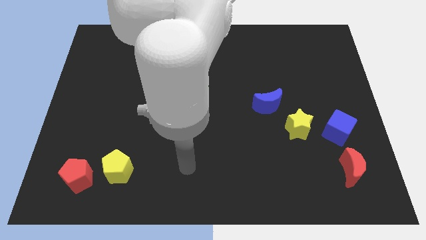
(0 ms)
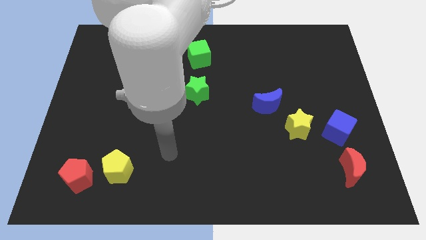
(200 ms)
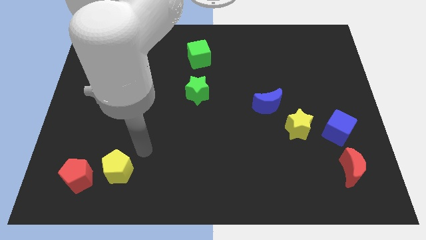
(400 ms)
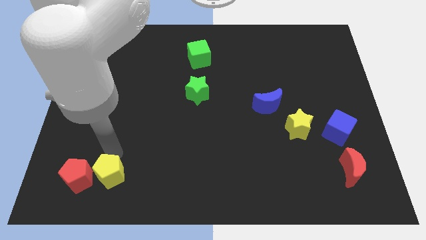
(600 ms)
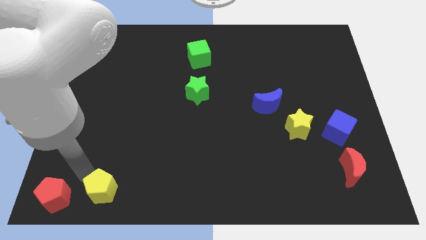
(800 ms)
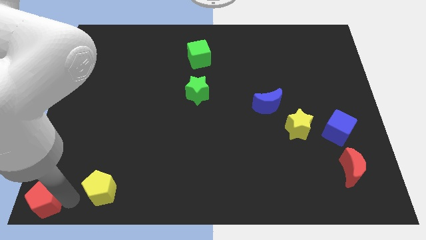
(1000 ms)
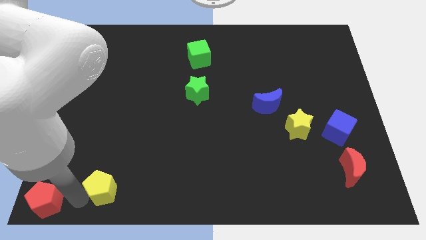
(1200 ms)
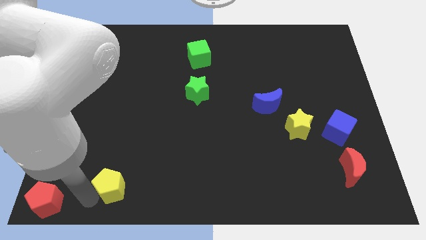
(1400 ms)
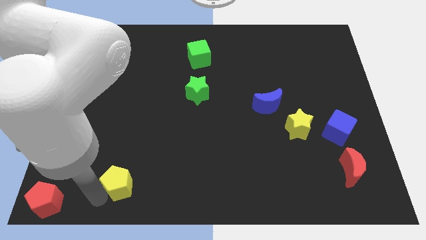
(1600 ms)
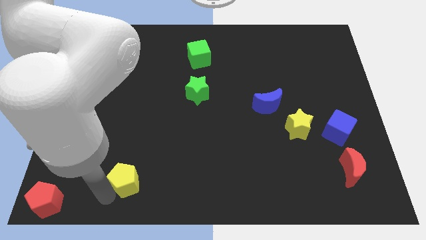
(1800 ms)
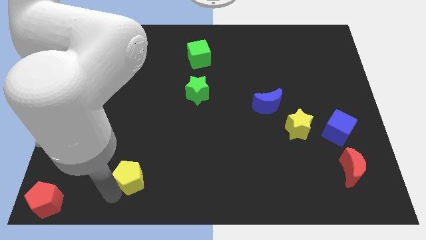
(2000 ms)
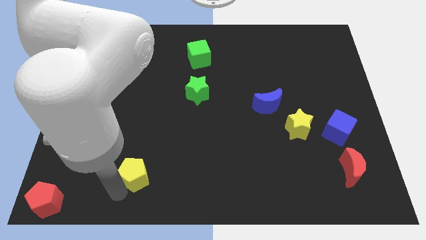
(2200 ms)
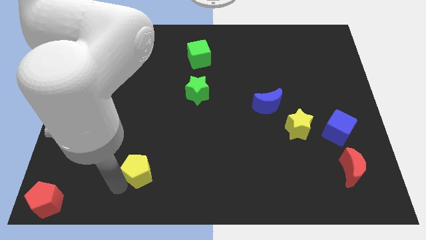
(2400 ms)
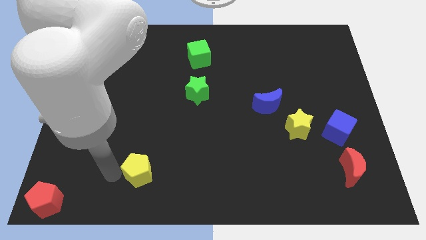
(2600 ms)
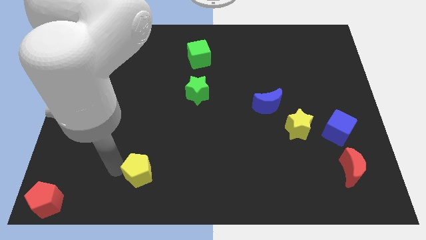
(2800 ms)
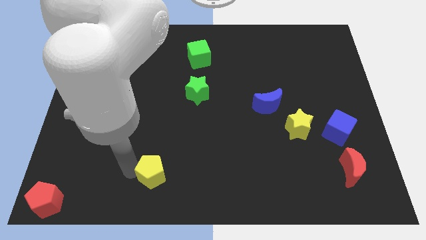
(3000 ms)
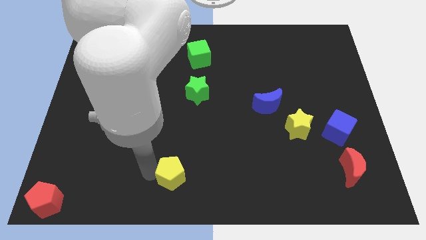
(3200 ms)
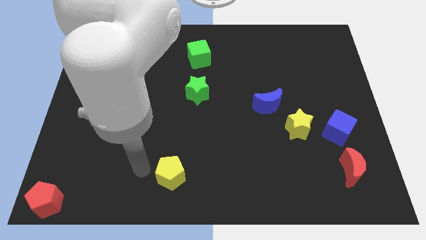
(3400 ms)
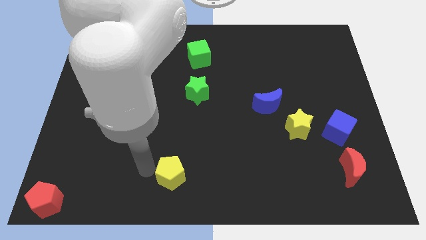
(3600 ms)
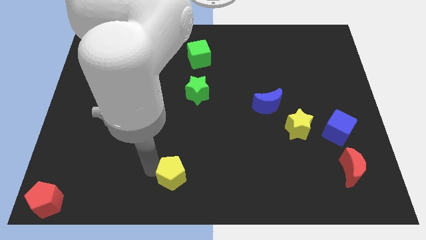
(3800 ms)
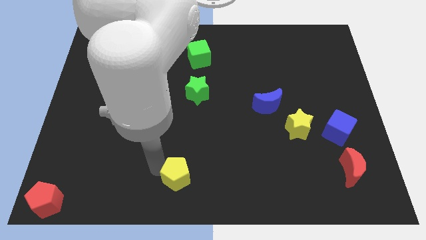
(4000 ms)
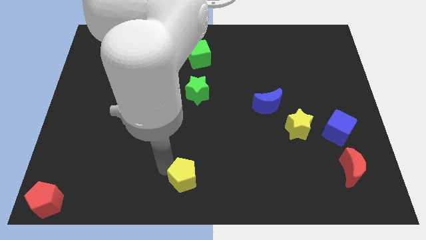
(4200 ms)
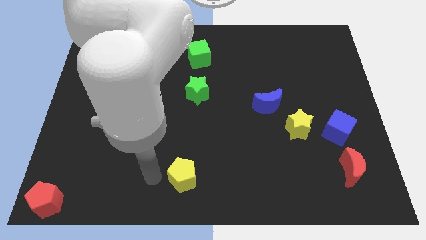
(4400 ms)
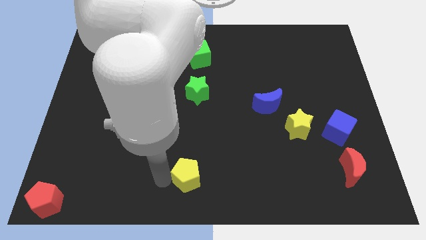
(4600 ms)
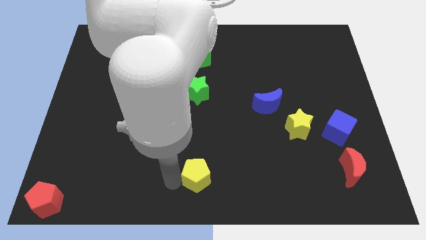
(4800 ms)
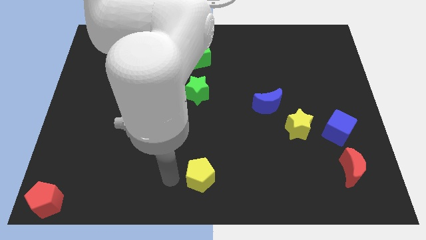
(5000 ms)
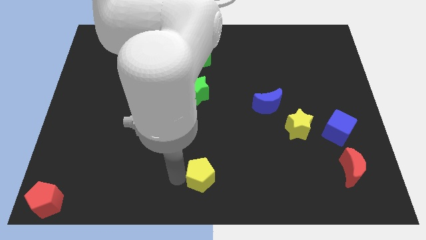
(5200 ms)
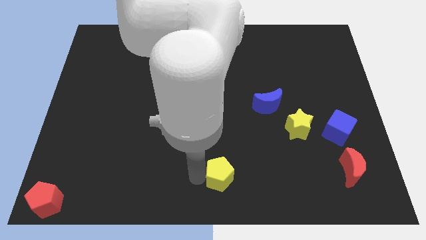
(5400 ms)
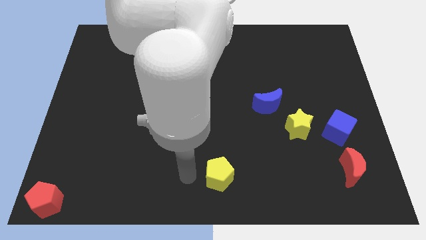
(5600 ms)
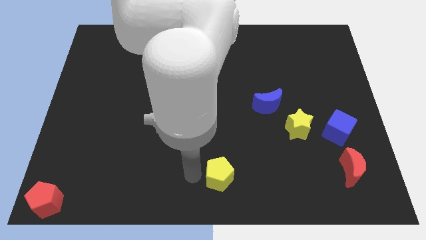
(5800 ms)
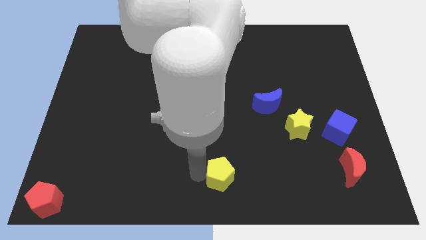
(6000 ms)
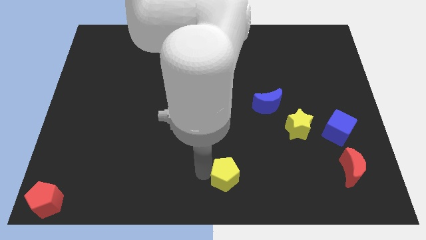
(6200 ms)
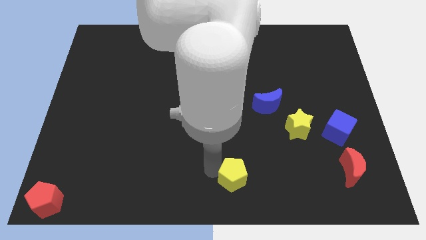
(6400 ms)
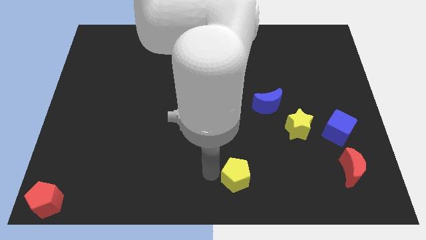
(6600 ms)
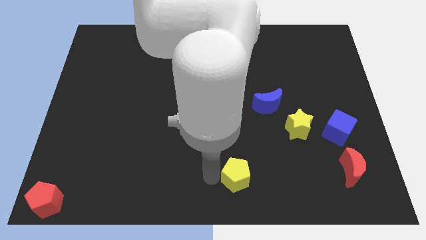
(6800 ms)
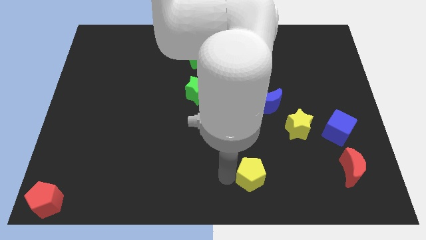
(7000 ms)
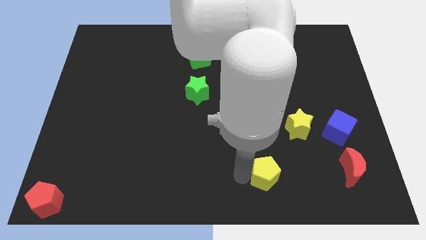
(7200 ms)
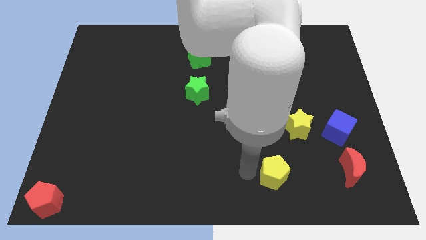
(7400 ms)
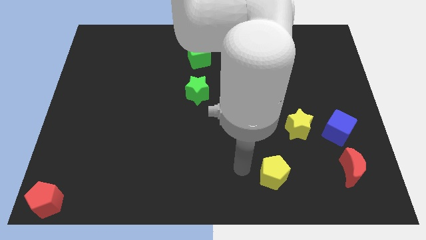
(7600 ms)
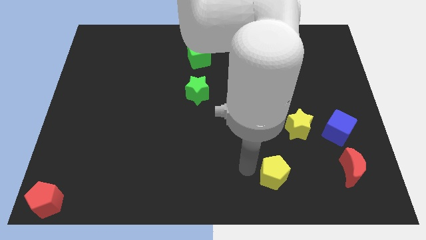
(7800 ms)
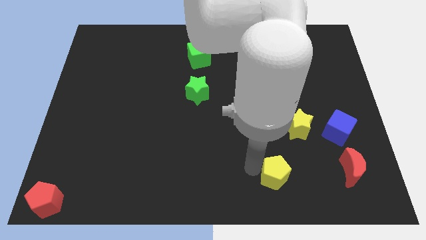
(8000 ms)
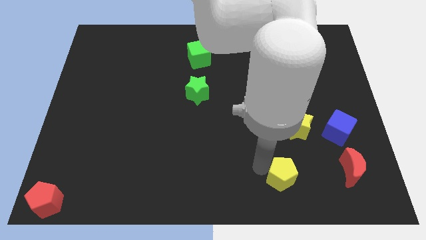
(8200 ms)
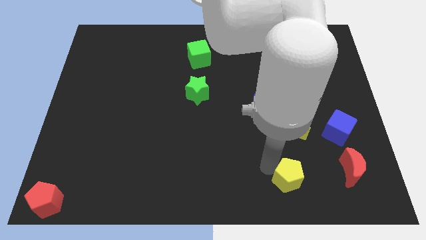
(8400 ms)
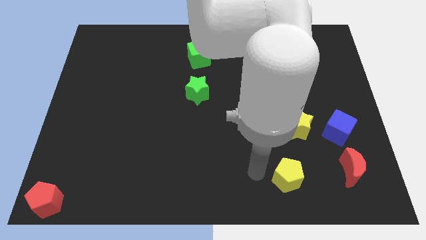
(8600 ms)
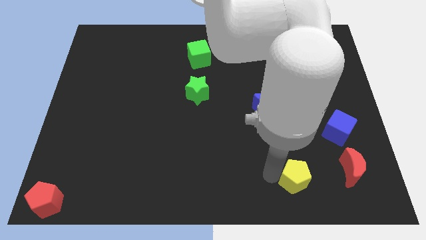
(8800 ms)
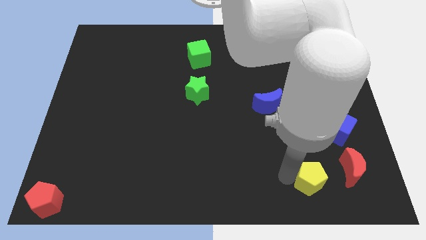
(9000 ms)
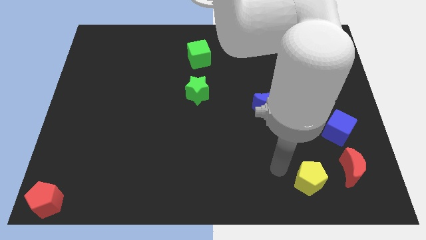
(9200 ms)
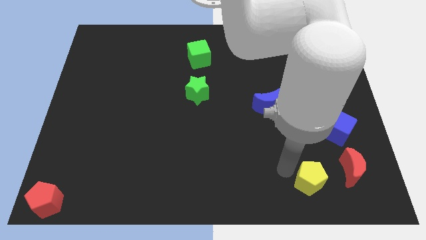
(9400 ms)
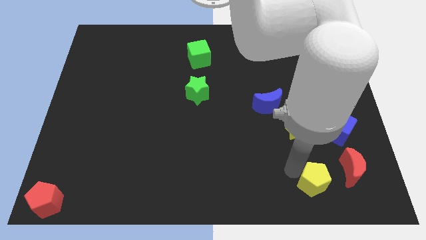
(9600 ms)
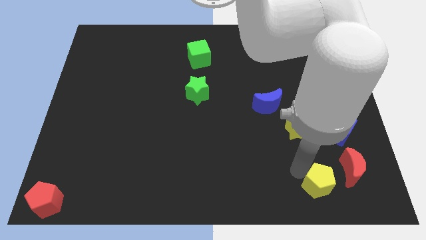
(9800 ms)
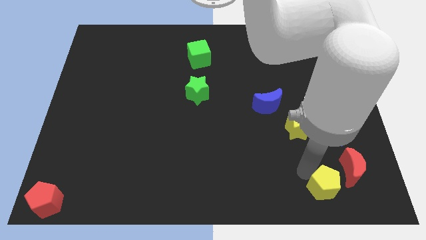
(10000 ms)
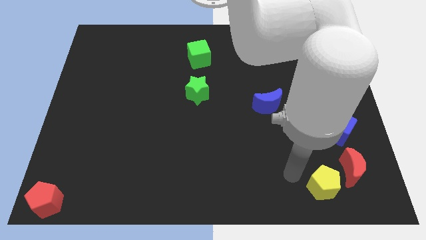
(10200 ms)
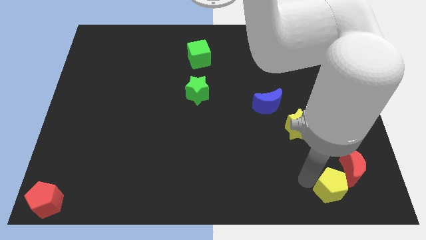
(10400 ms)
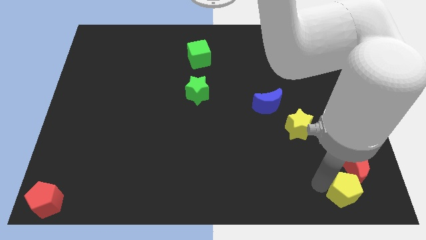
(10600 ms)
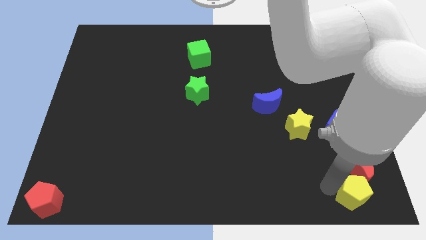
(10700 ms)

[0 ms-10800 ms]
push the yellow pentagon to the bottom right corner
